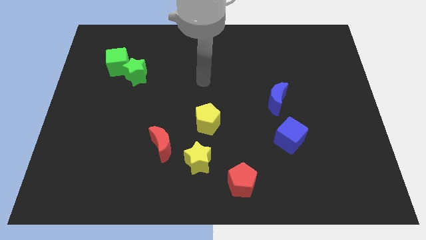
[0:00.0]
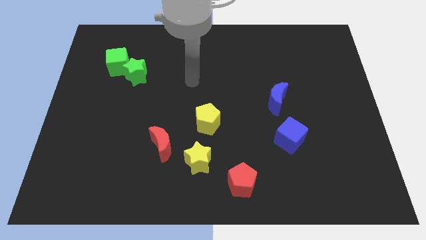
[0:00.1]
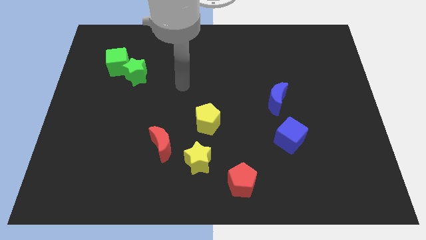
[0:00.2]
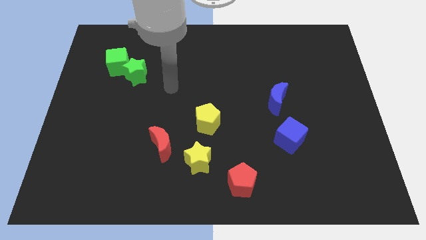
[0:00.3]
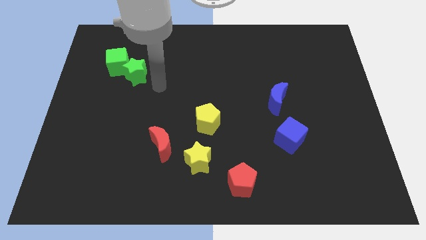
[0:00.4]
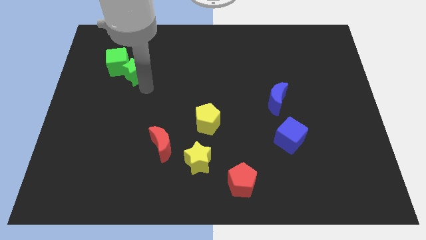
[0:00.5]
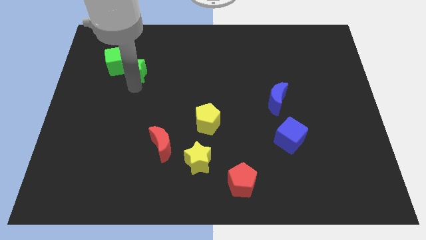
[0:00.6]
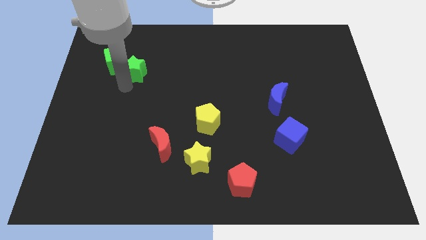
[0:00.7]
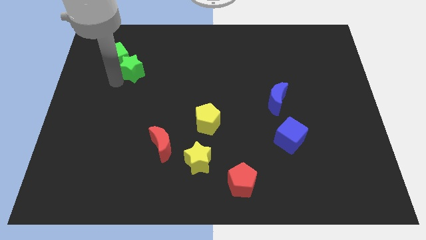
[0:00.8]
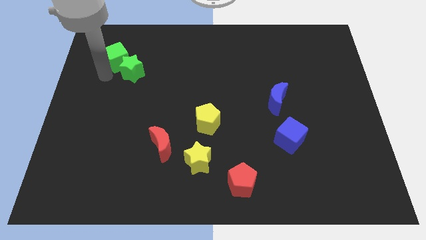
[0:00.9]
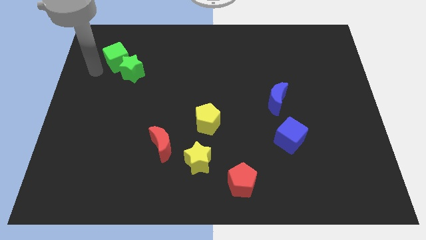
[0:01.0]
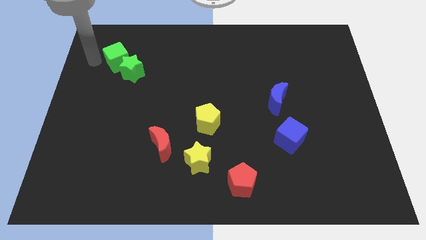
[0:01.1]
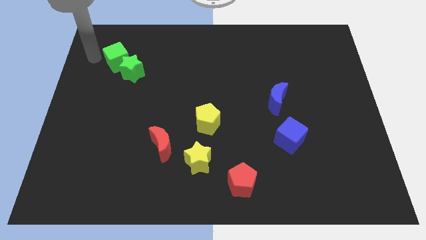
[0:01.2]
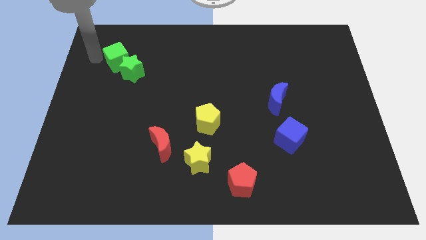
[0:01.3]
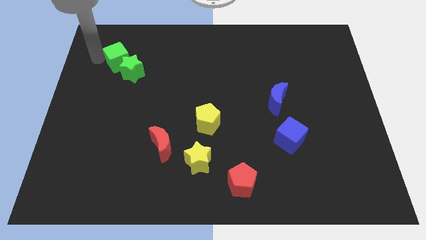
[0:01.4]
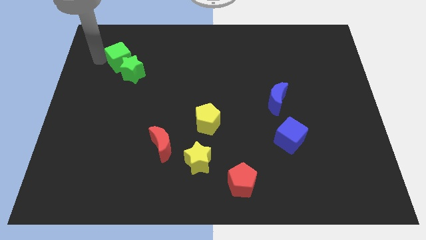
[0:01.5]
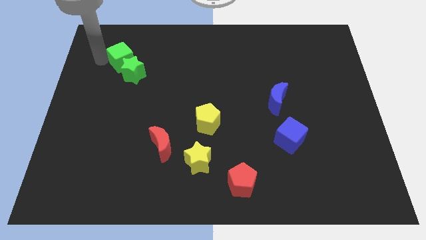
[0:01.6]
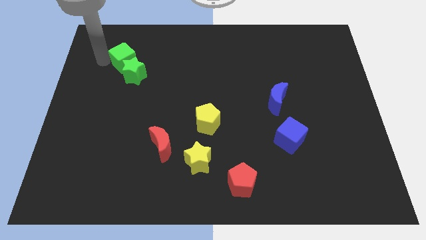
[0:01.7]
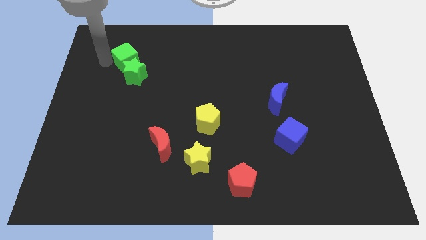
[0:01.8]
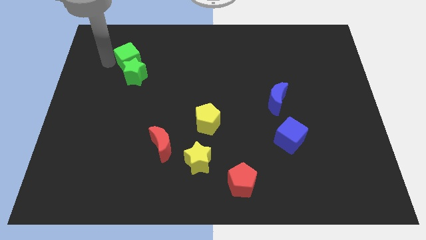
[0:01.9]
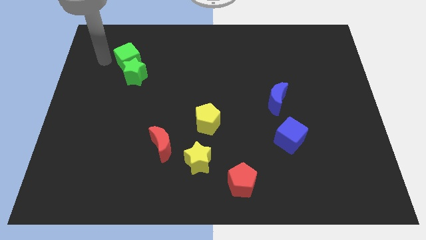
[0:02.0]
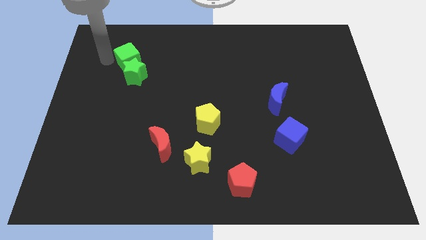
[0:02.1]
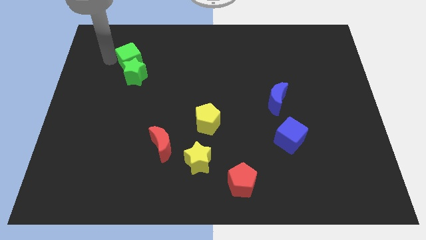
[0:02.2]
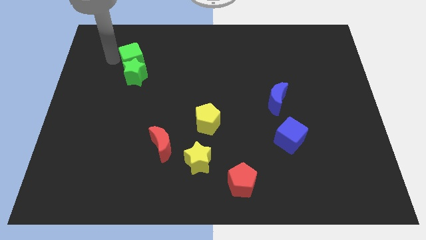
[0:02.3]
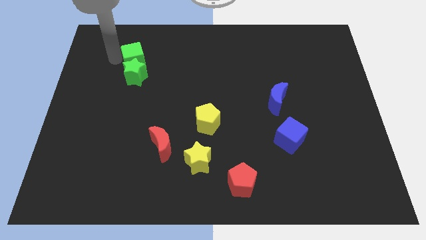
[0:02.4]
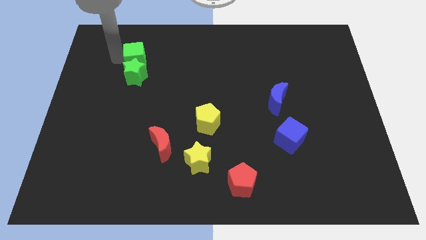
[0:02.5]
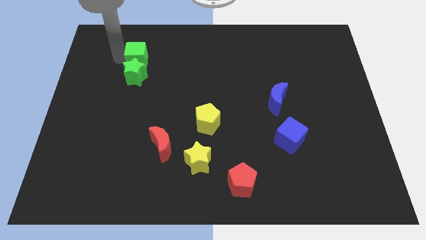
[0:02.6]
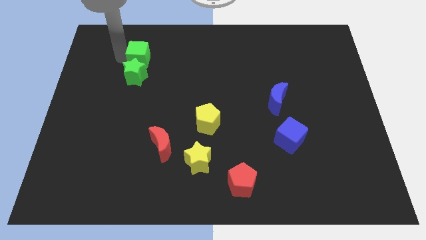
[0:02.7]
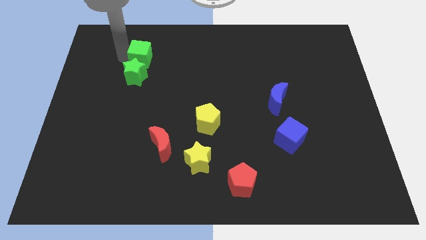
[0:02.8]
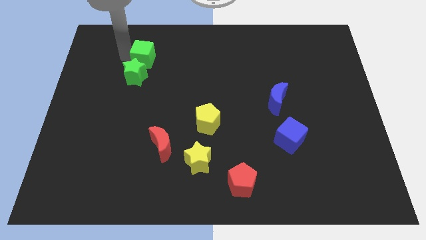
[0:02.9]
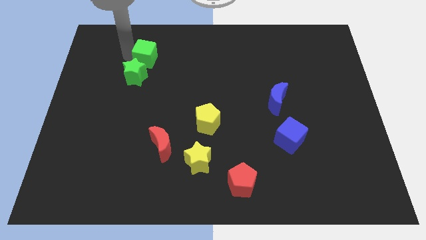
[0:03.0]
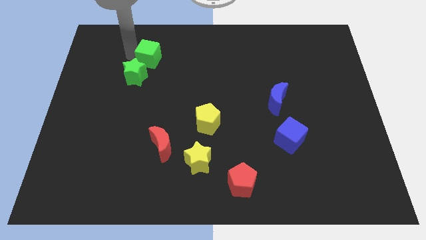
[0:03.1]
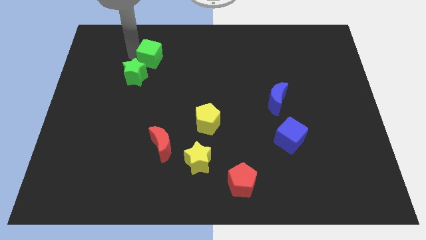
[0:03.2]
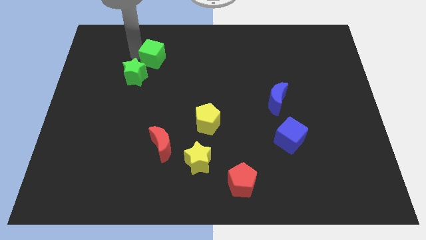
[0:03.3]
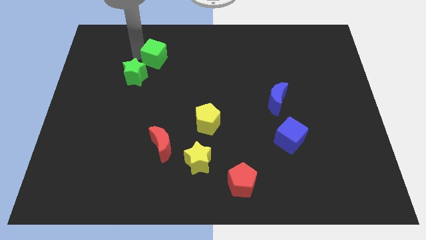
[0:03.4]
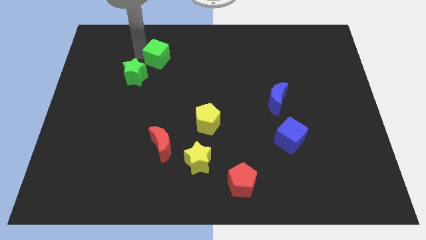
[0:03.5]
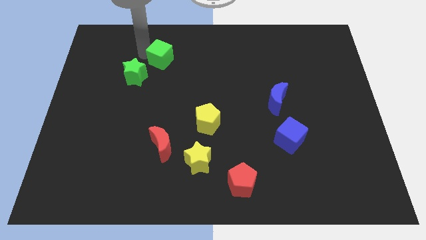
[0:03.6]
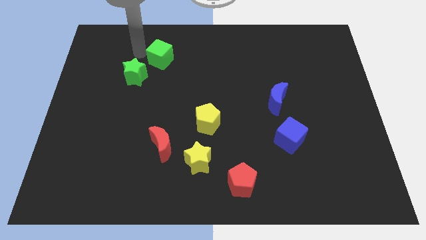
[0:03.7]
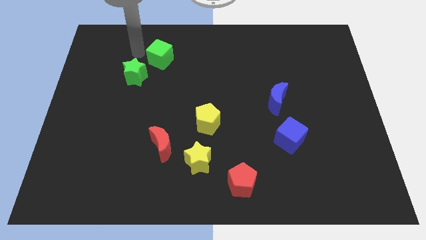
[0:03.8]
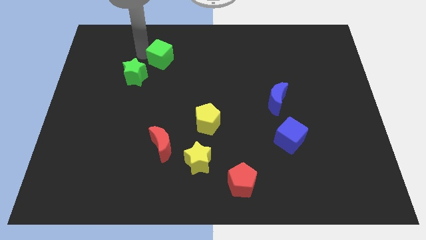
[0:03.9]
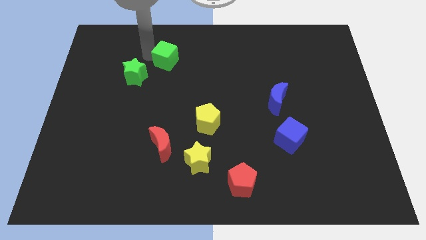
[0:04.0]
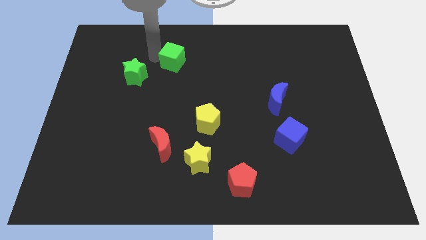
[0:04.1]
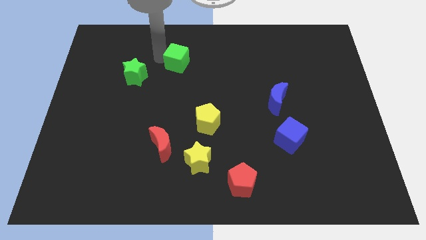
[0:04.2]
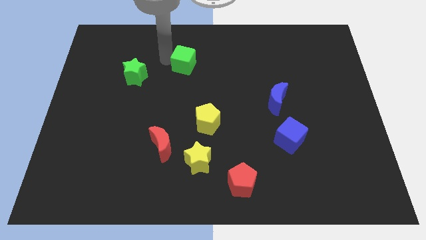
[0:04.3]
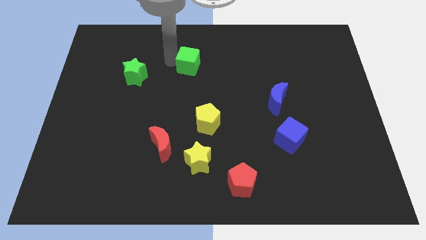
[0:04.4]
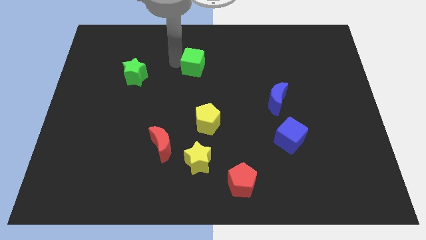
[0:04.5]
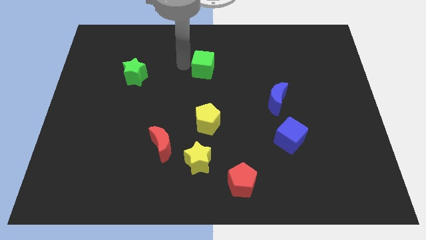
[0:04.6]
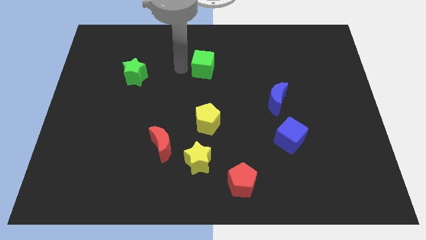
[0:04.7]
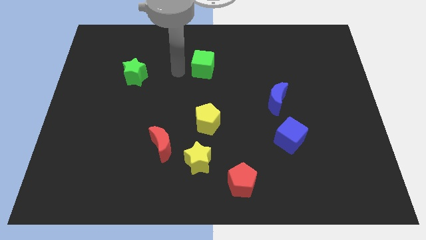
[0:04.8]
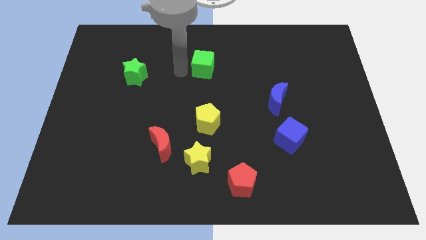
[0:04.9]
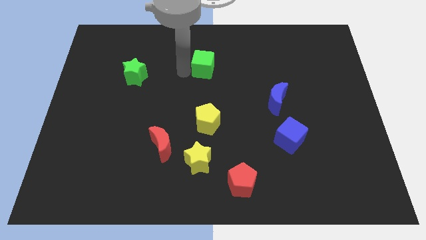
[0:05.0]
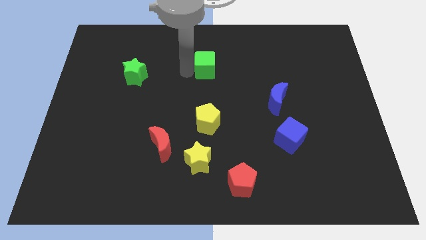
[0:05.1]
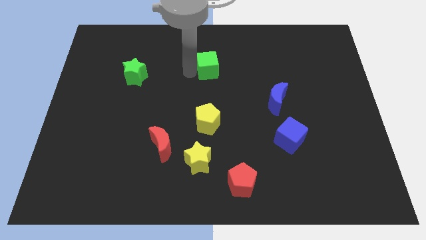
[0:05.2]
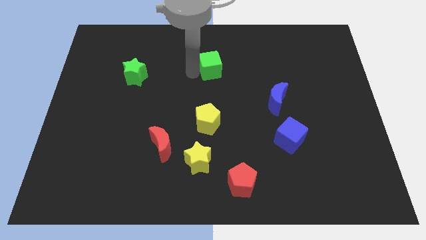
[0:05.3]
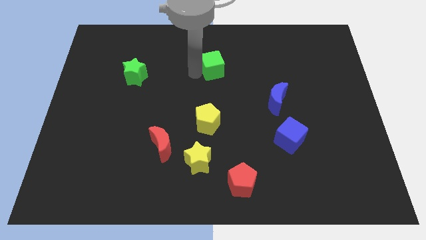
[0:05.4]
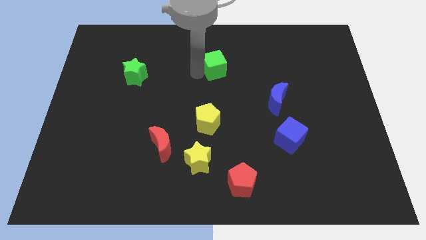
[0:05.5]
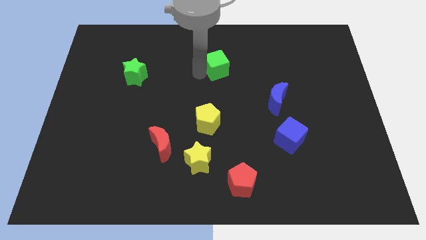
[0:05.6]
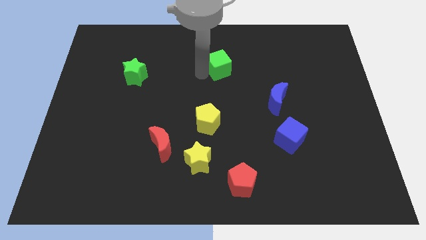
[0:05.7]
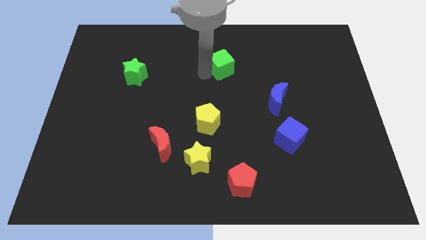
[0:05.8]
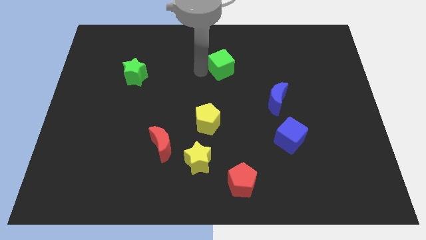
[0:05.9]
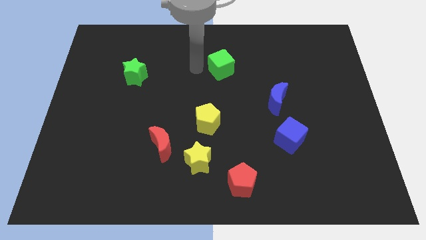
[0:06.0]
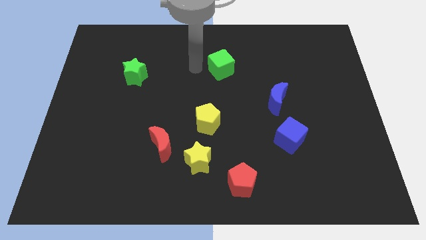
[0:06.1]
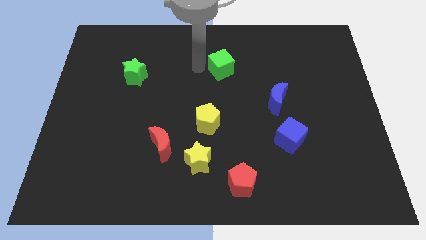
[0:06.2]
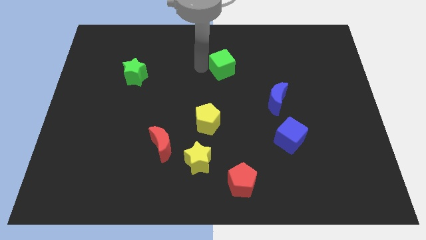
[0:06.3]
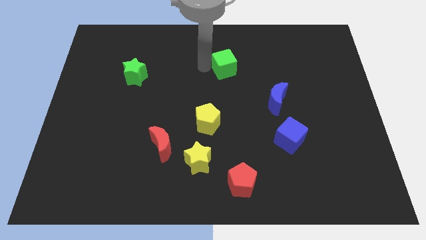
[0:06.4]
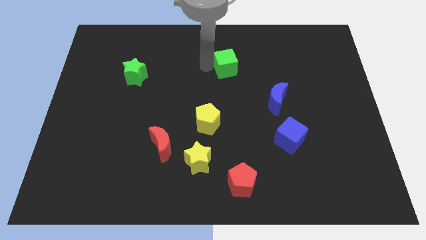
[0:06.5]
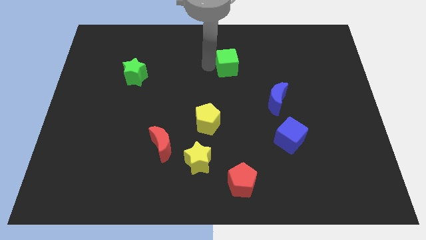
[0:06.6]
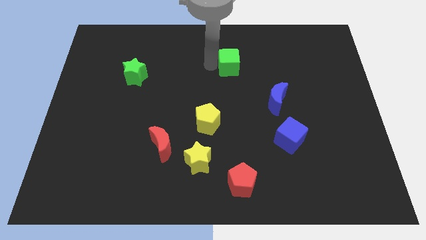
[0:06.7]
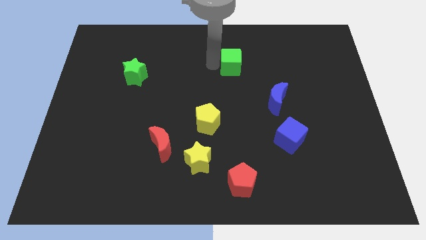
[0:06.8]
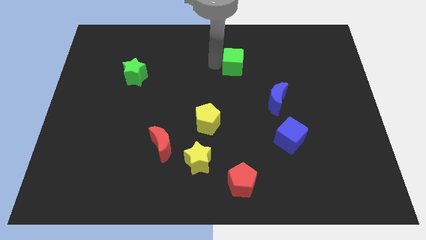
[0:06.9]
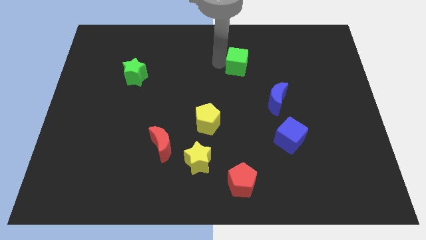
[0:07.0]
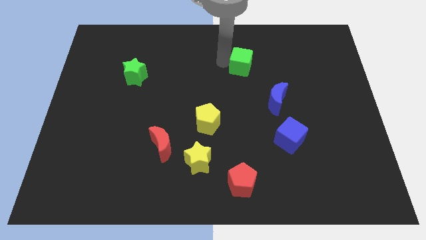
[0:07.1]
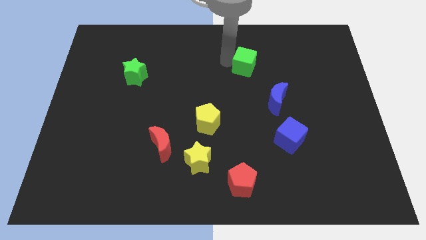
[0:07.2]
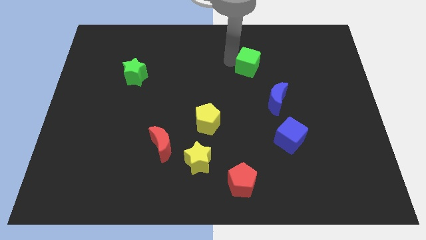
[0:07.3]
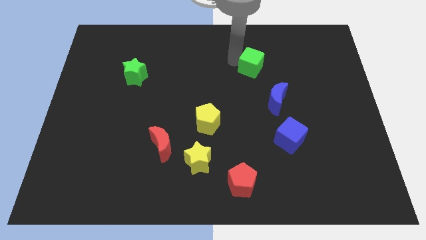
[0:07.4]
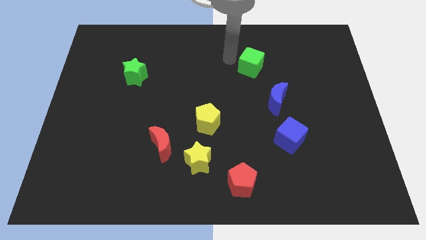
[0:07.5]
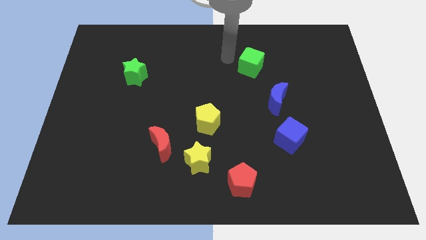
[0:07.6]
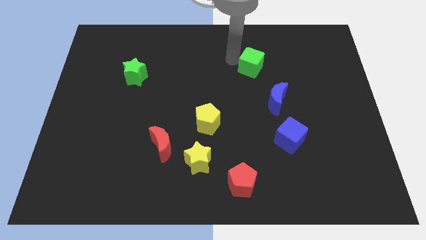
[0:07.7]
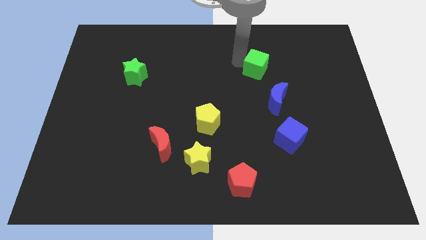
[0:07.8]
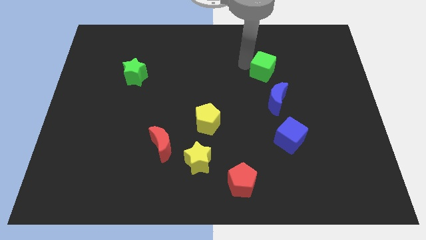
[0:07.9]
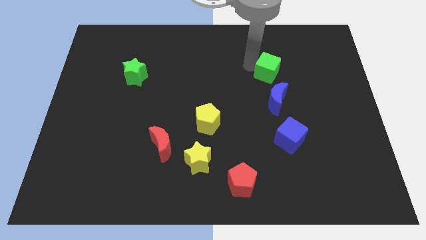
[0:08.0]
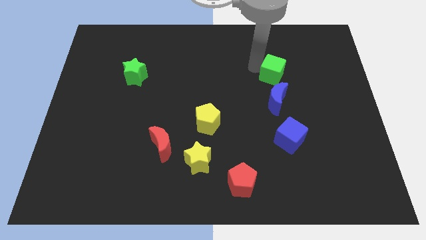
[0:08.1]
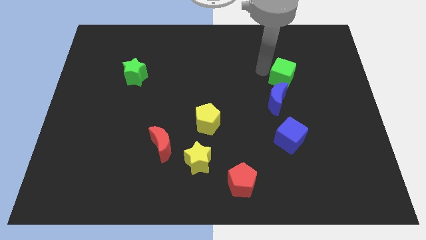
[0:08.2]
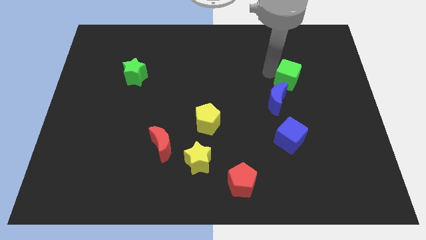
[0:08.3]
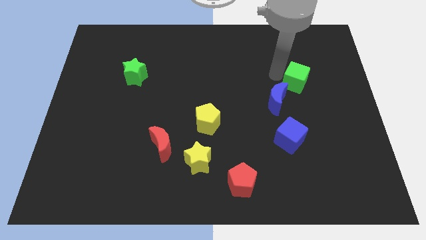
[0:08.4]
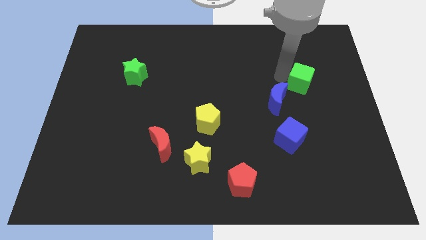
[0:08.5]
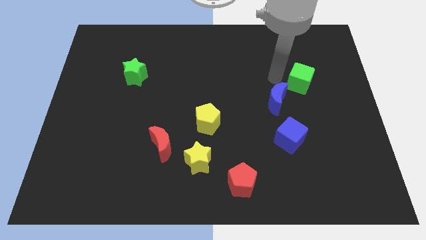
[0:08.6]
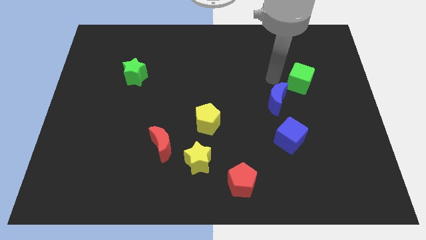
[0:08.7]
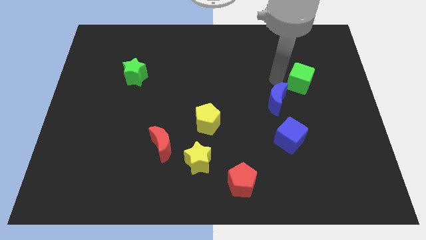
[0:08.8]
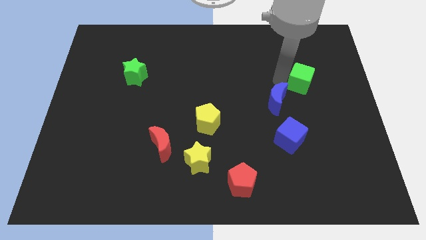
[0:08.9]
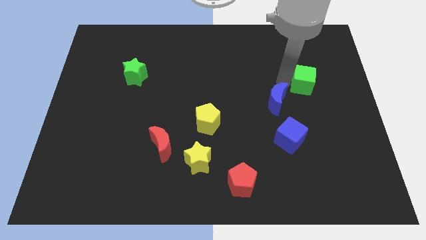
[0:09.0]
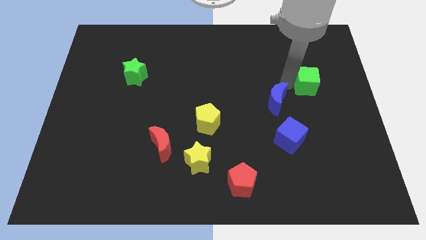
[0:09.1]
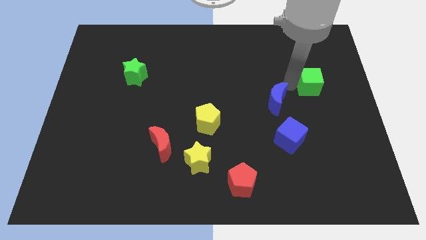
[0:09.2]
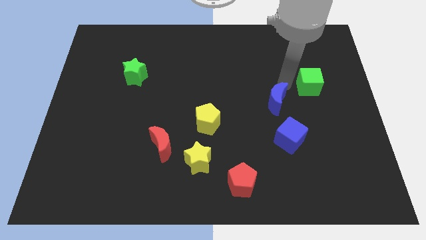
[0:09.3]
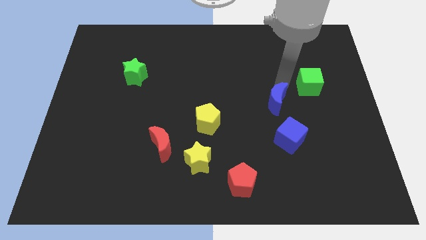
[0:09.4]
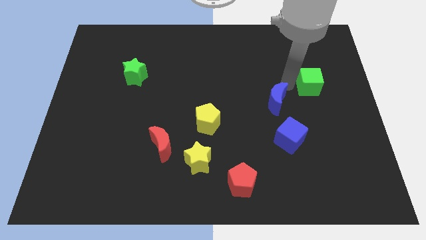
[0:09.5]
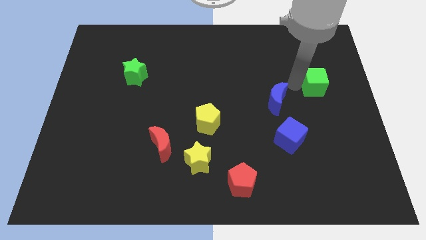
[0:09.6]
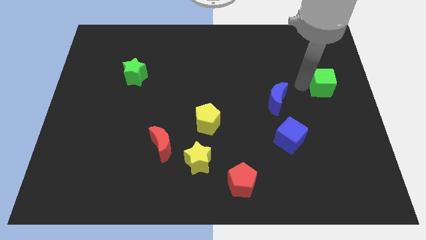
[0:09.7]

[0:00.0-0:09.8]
move the green cube to the right side
